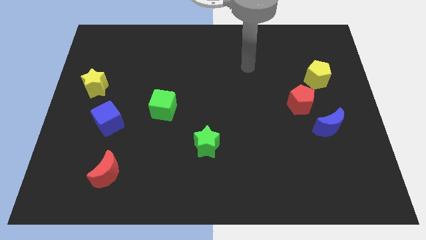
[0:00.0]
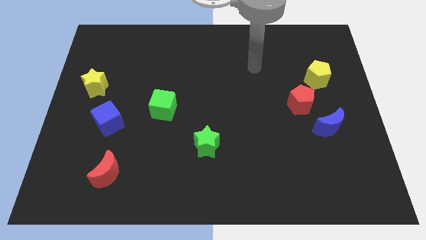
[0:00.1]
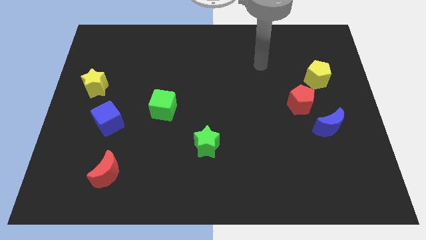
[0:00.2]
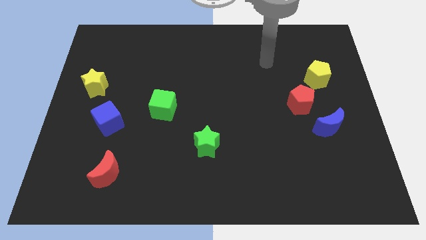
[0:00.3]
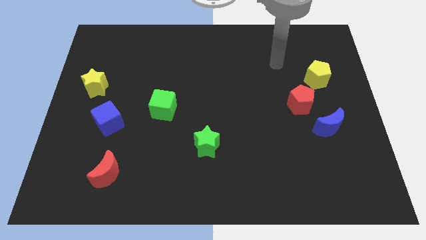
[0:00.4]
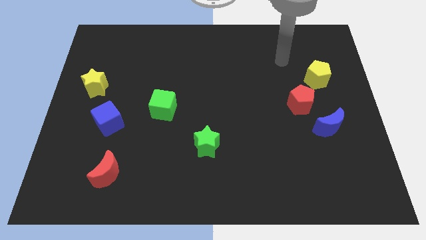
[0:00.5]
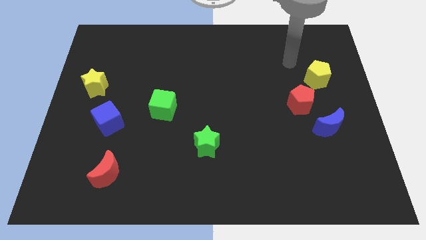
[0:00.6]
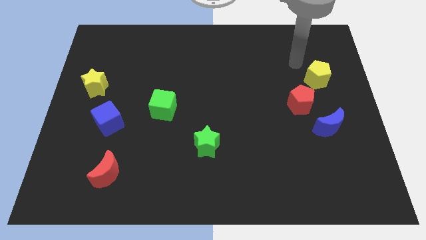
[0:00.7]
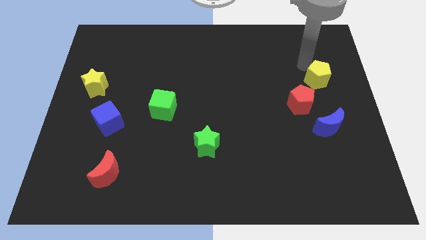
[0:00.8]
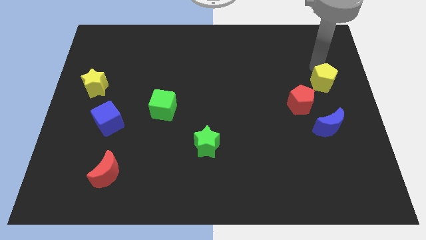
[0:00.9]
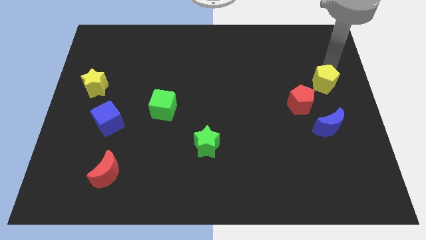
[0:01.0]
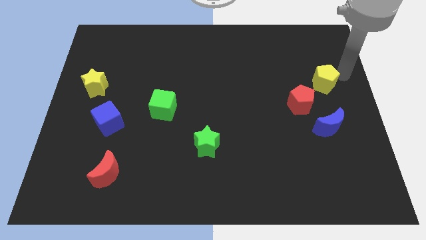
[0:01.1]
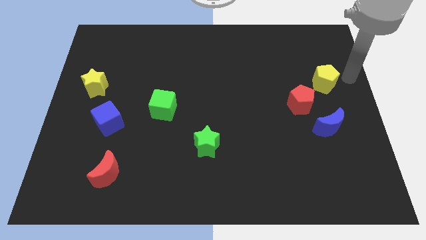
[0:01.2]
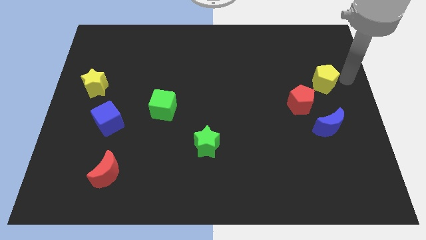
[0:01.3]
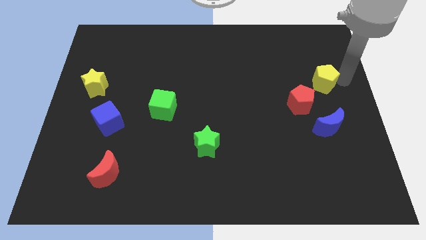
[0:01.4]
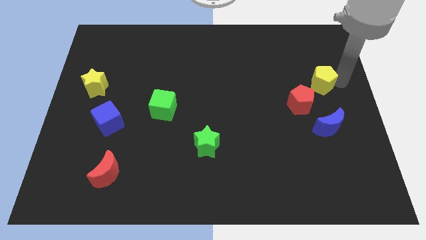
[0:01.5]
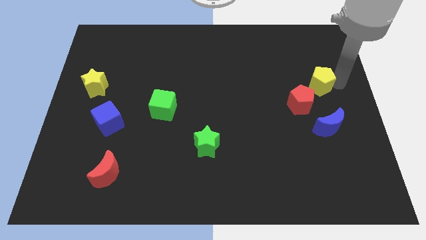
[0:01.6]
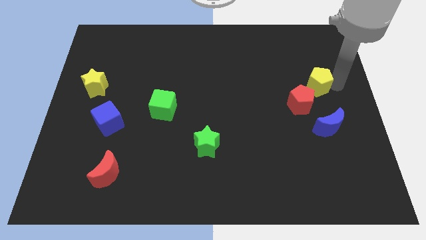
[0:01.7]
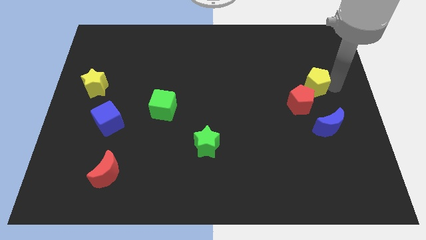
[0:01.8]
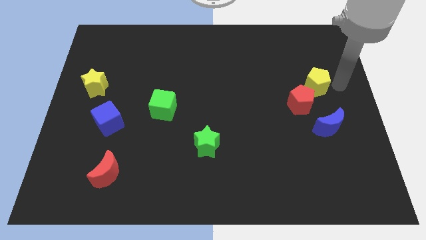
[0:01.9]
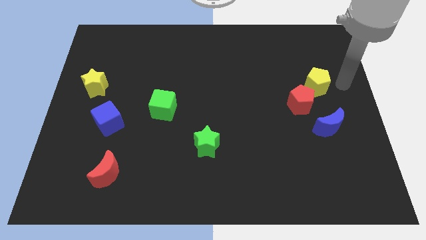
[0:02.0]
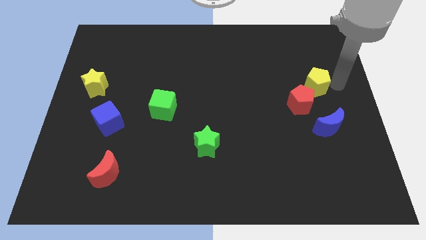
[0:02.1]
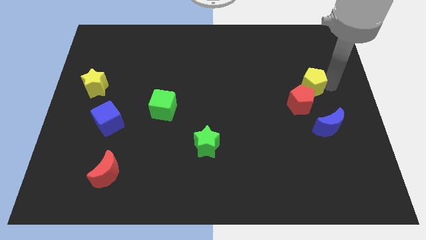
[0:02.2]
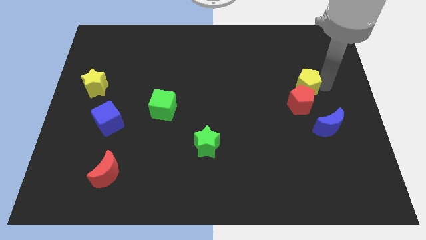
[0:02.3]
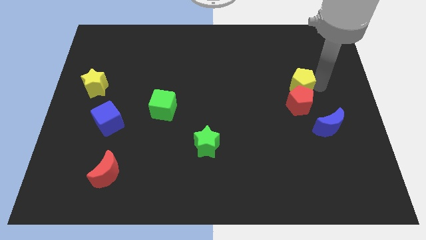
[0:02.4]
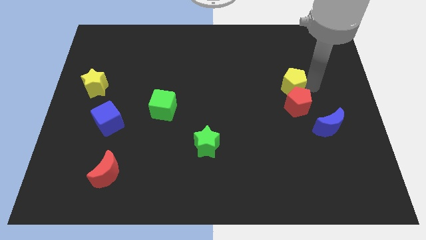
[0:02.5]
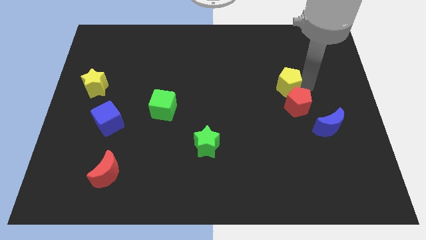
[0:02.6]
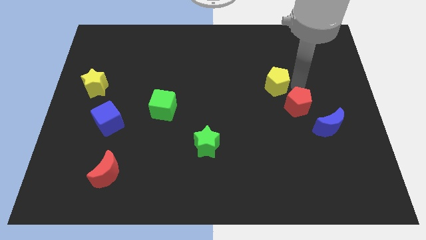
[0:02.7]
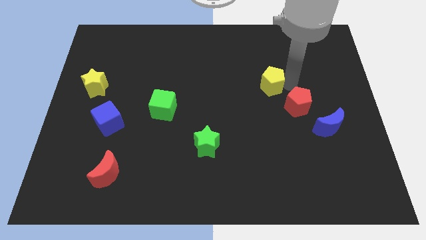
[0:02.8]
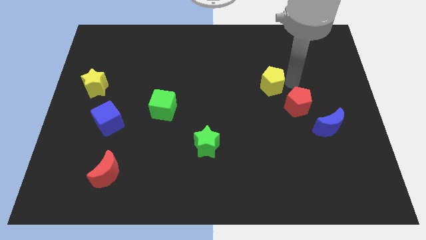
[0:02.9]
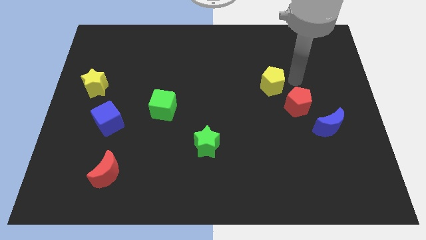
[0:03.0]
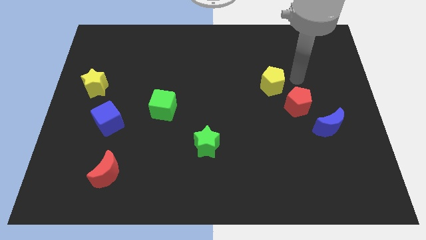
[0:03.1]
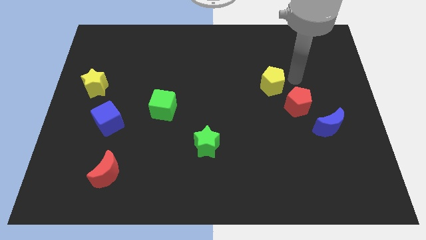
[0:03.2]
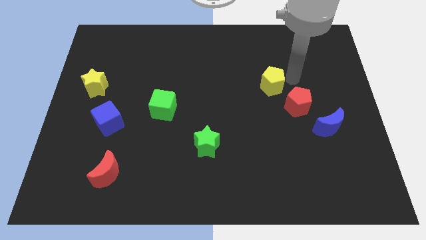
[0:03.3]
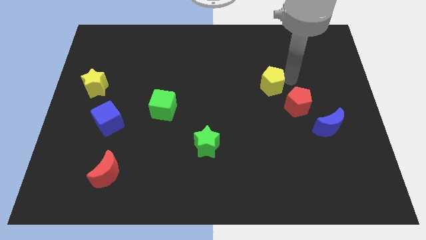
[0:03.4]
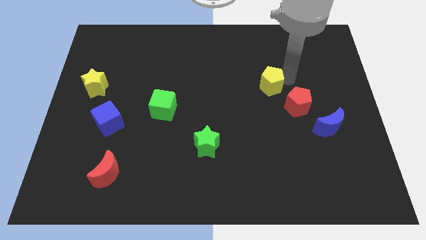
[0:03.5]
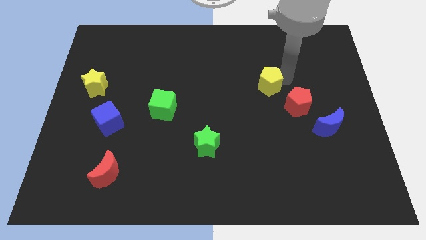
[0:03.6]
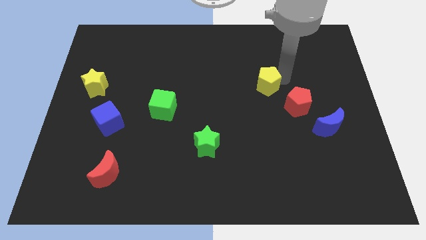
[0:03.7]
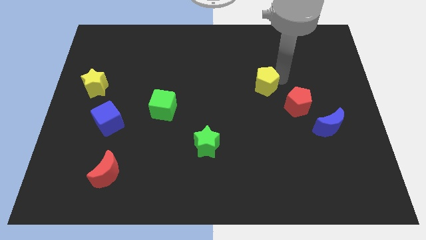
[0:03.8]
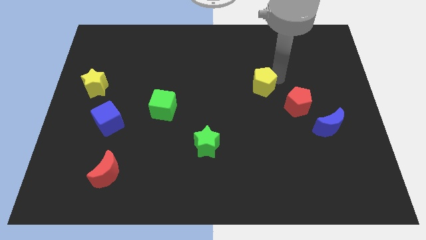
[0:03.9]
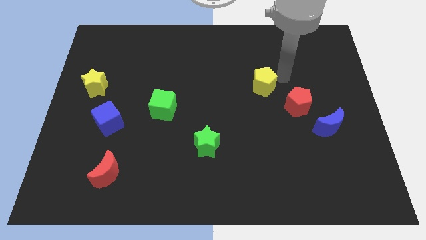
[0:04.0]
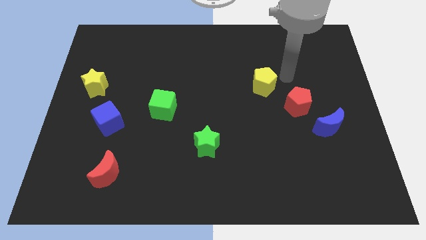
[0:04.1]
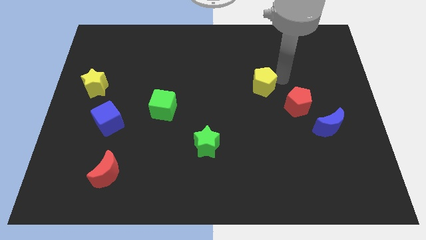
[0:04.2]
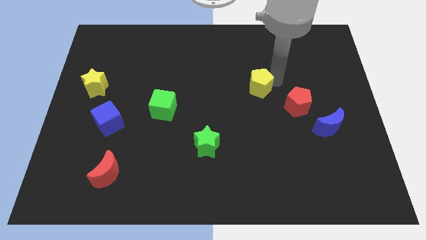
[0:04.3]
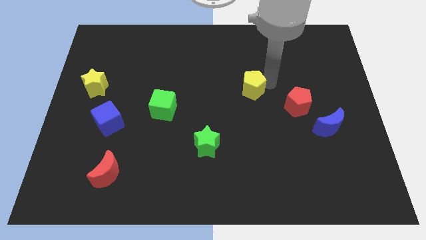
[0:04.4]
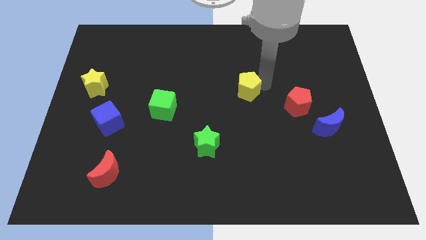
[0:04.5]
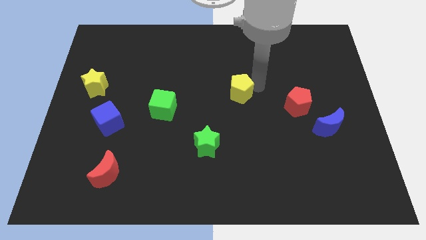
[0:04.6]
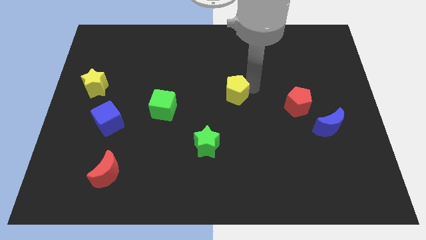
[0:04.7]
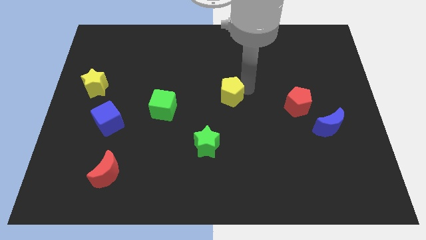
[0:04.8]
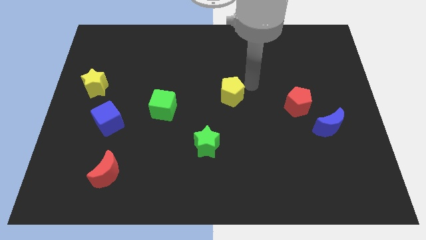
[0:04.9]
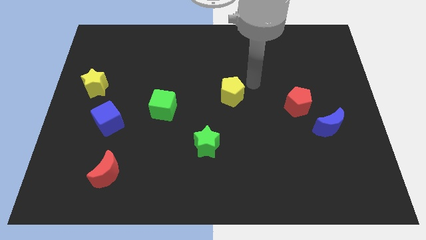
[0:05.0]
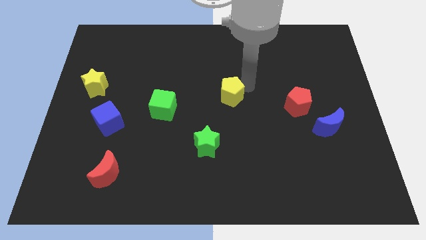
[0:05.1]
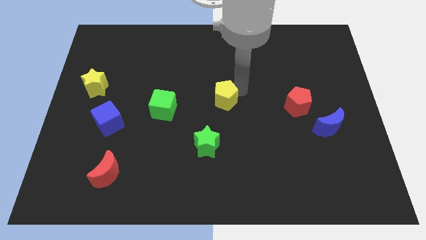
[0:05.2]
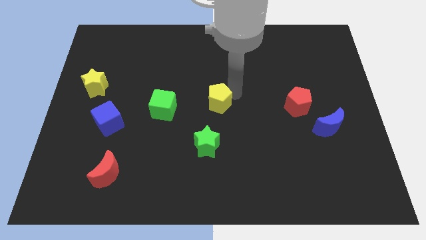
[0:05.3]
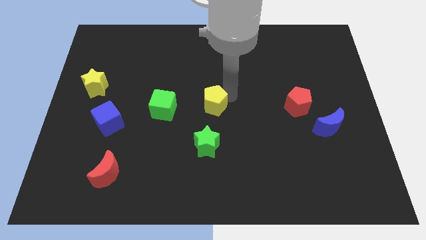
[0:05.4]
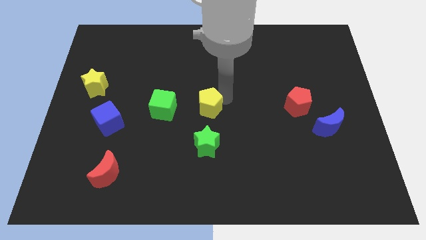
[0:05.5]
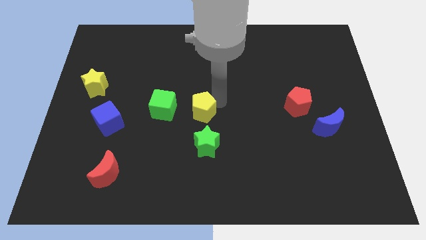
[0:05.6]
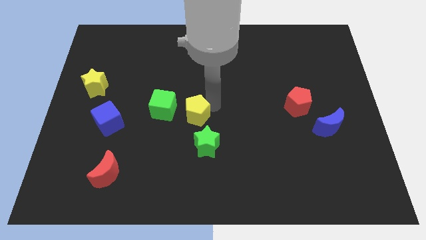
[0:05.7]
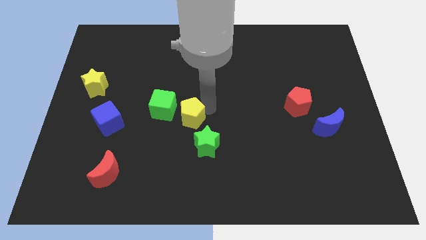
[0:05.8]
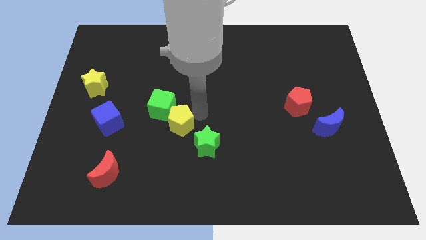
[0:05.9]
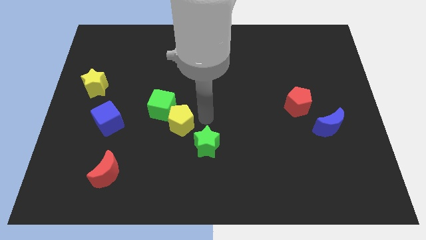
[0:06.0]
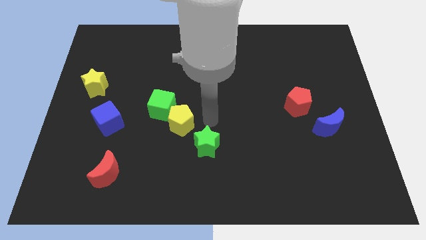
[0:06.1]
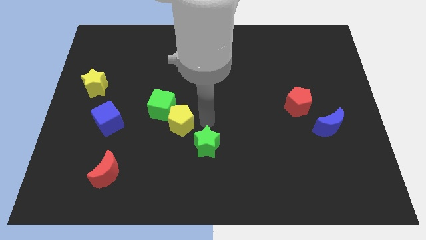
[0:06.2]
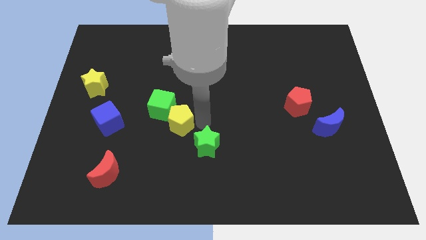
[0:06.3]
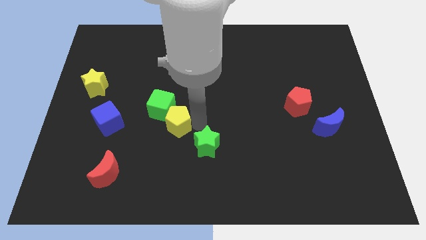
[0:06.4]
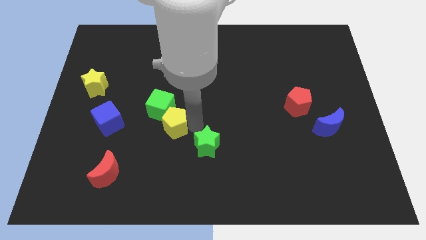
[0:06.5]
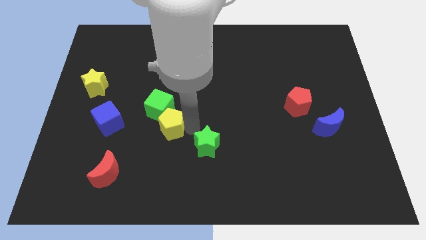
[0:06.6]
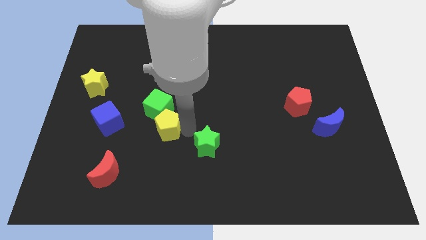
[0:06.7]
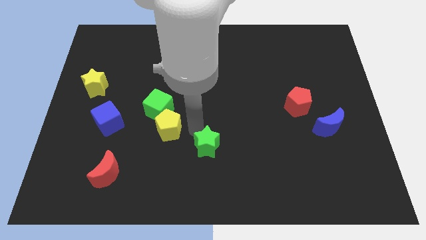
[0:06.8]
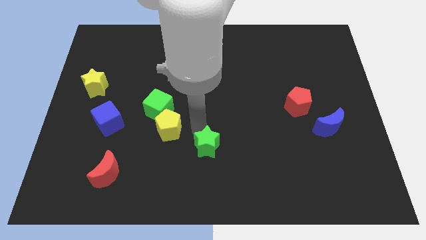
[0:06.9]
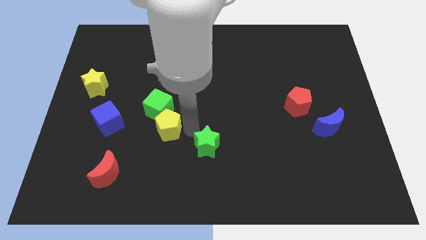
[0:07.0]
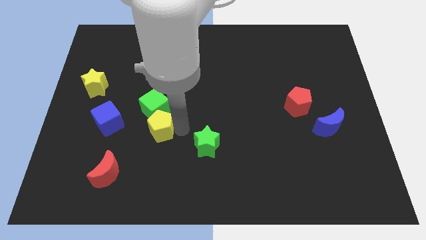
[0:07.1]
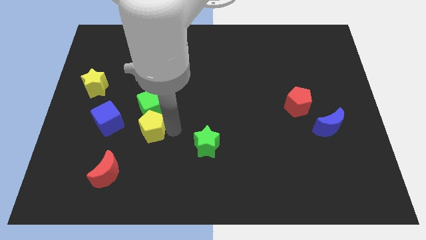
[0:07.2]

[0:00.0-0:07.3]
move the yellow pentagon to the bottom left side of the green cube
